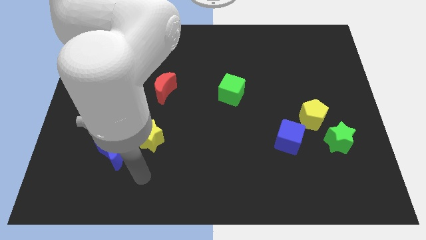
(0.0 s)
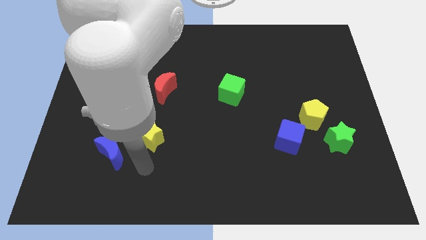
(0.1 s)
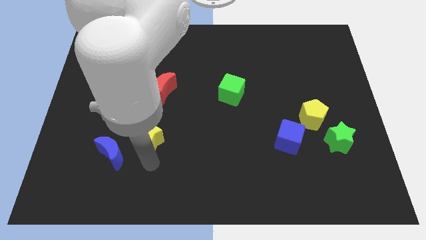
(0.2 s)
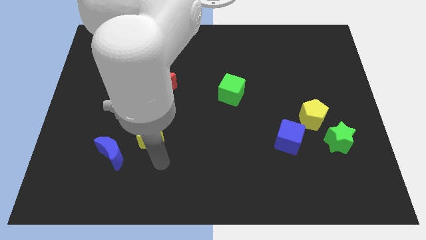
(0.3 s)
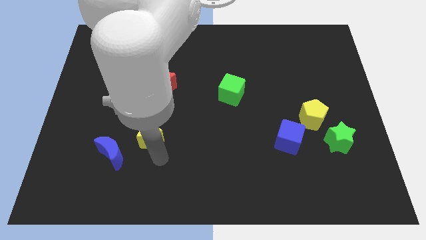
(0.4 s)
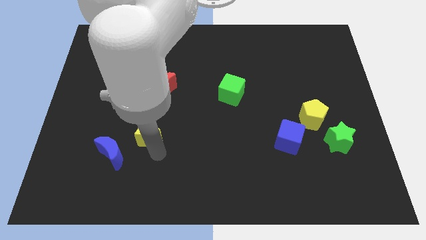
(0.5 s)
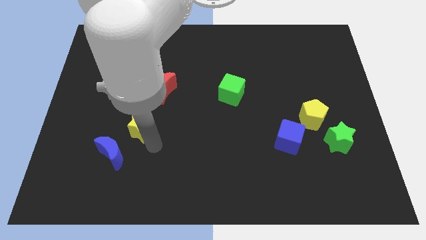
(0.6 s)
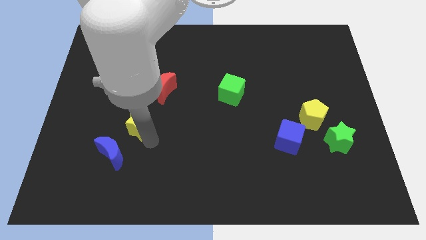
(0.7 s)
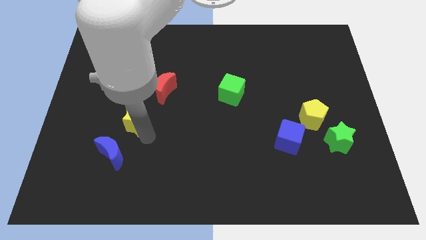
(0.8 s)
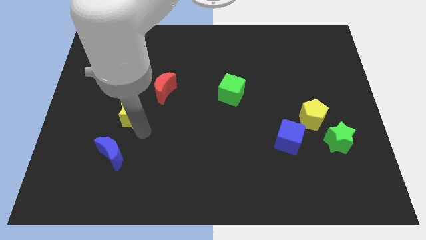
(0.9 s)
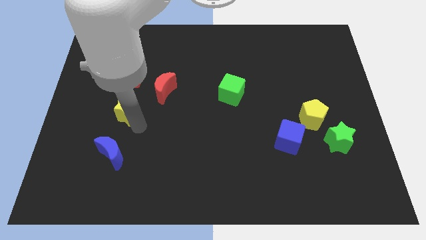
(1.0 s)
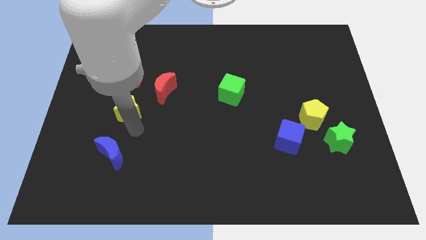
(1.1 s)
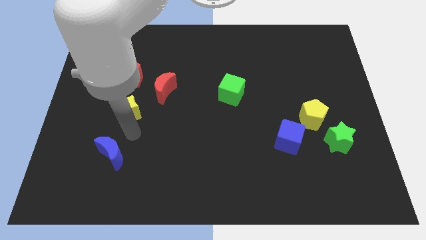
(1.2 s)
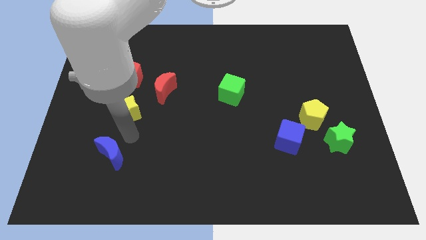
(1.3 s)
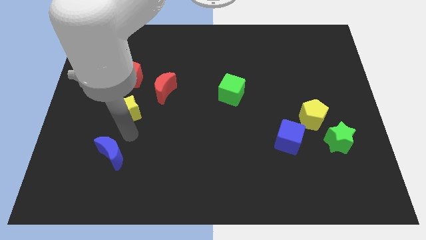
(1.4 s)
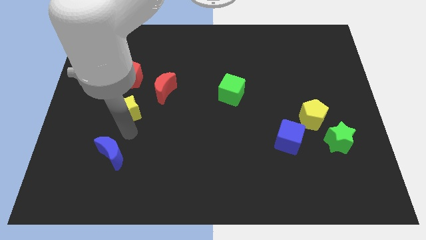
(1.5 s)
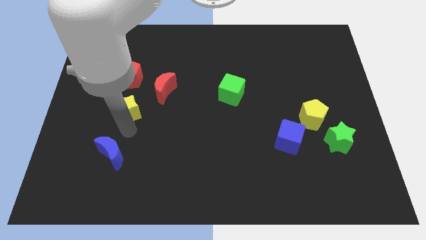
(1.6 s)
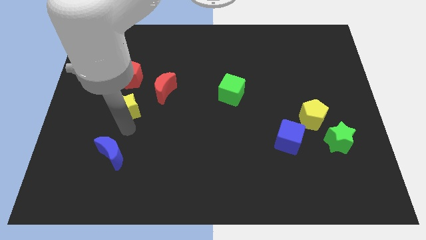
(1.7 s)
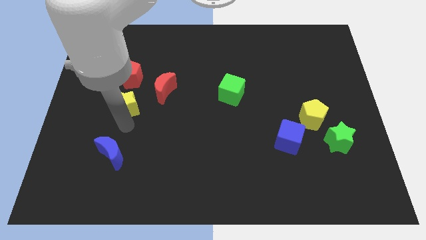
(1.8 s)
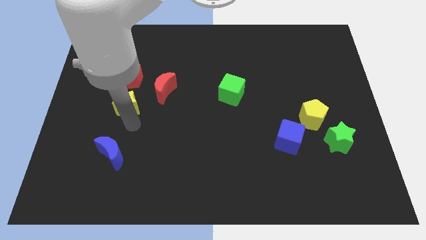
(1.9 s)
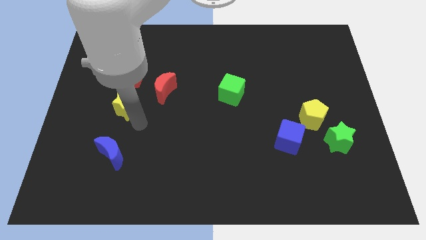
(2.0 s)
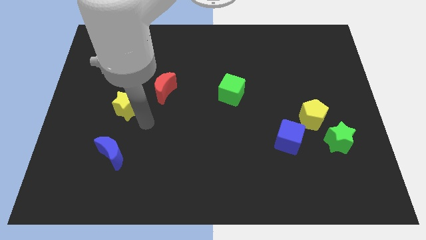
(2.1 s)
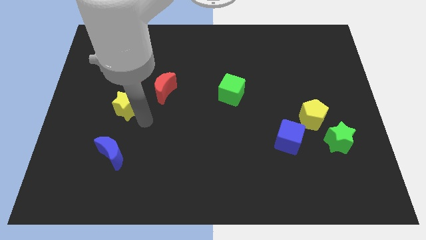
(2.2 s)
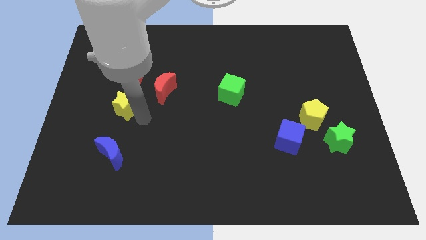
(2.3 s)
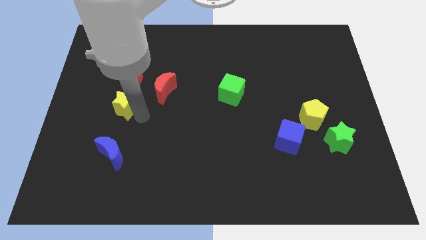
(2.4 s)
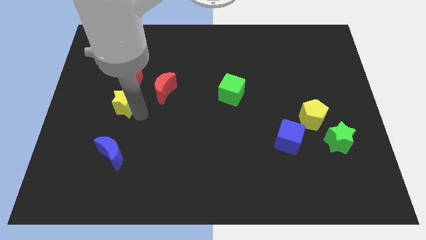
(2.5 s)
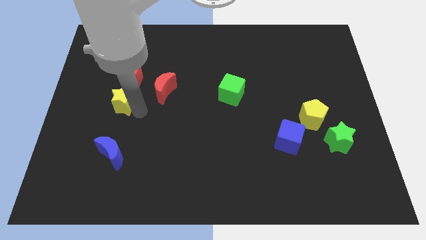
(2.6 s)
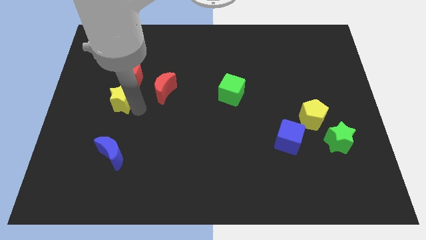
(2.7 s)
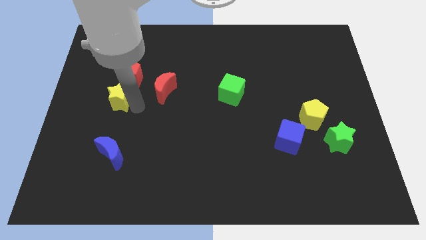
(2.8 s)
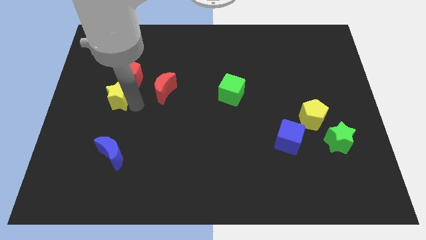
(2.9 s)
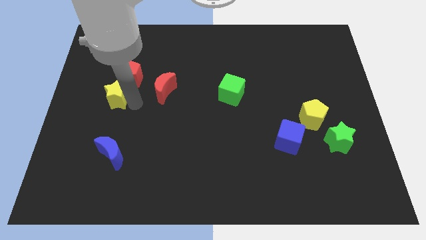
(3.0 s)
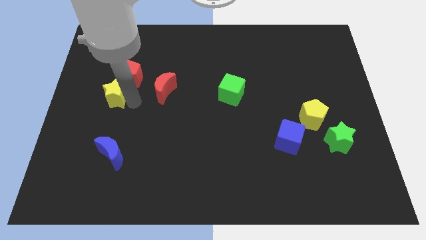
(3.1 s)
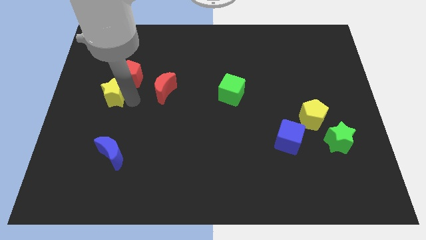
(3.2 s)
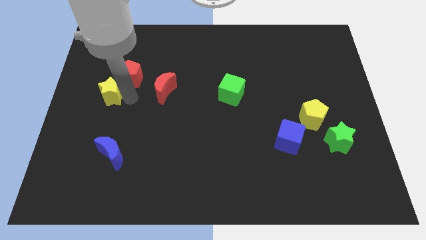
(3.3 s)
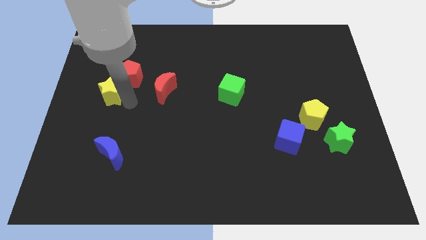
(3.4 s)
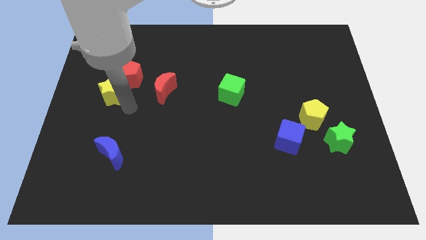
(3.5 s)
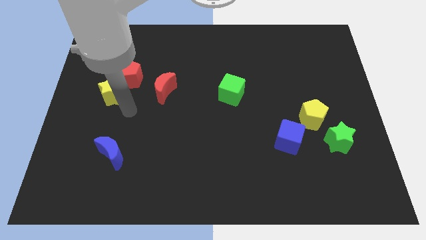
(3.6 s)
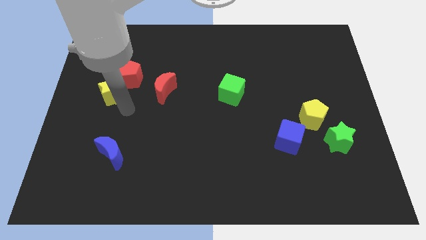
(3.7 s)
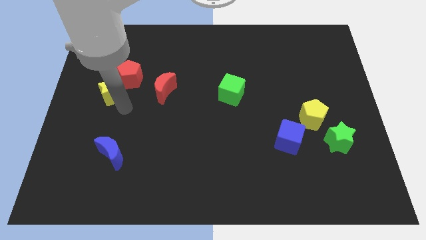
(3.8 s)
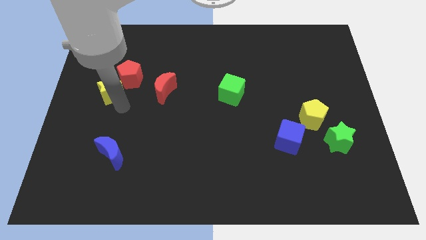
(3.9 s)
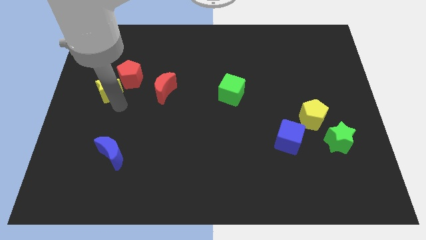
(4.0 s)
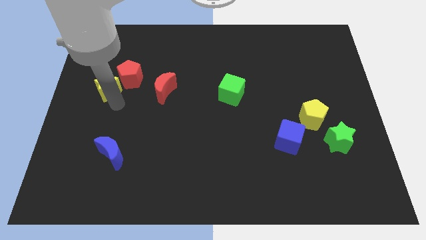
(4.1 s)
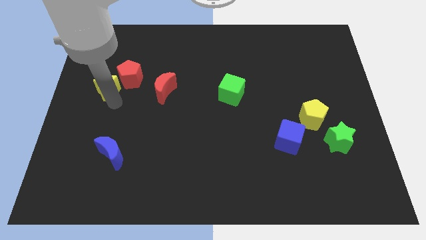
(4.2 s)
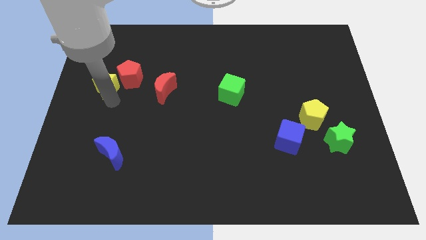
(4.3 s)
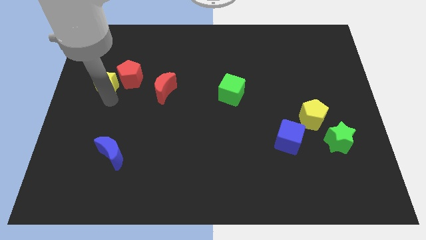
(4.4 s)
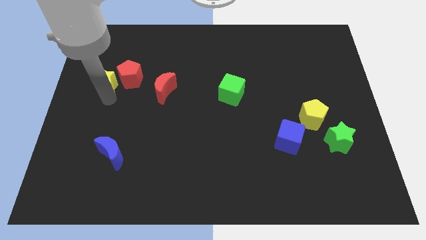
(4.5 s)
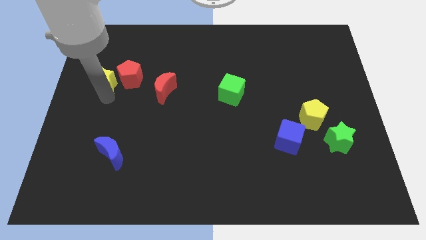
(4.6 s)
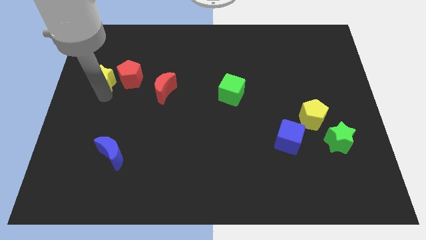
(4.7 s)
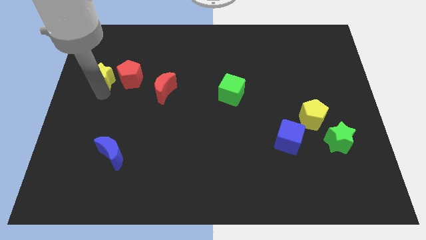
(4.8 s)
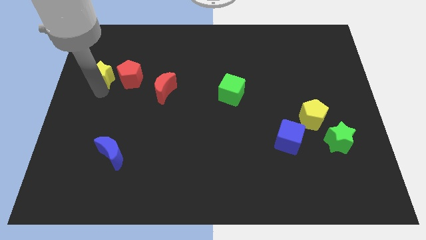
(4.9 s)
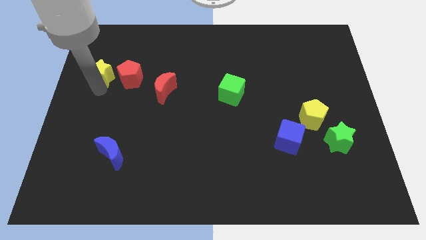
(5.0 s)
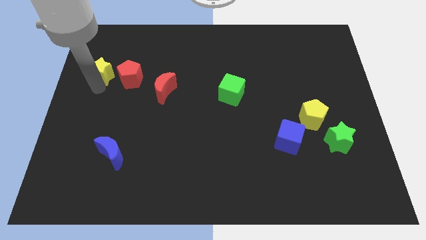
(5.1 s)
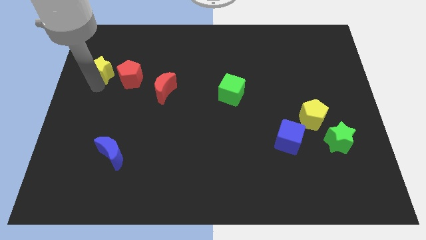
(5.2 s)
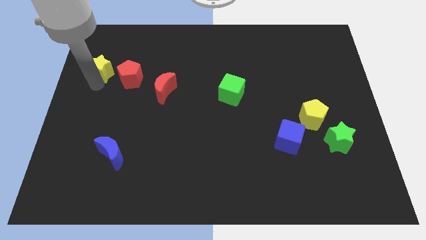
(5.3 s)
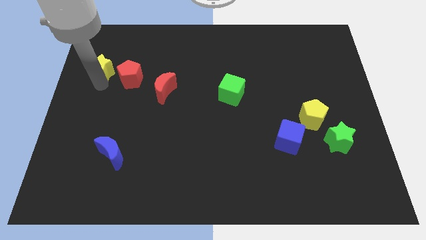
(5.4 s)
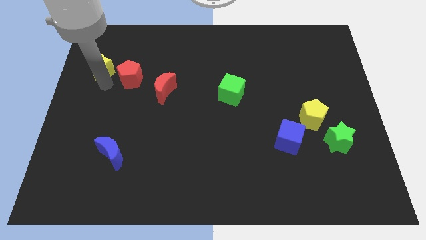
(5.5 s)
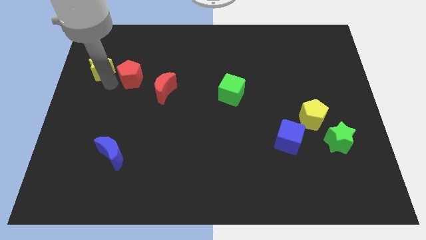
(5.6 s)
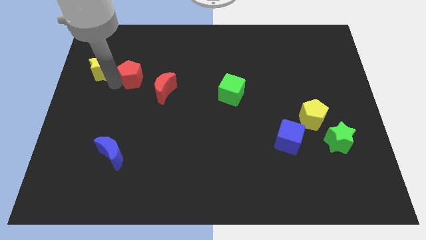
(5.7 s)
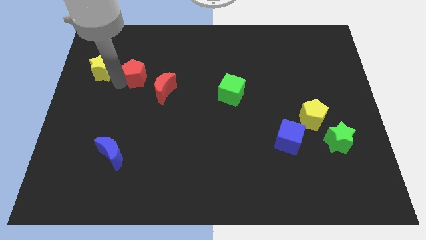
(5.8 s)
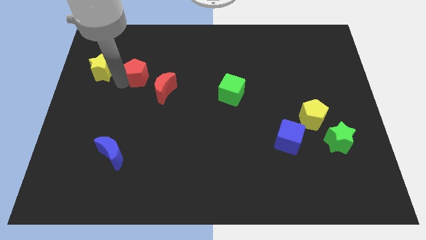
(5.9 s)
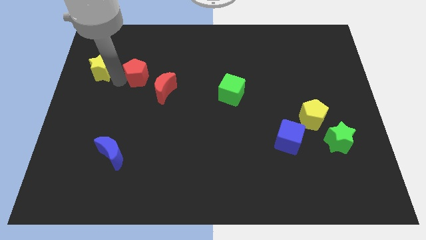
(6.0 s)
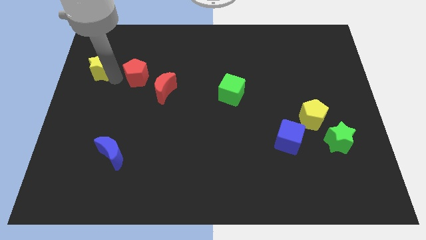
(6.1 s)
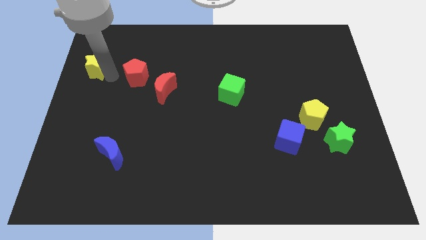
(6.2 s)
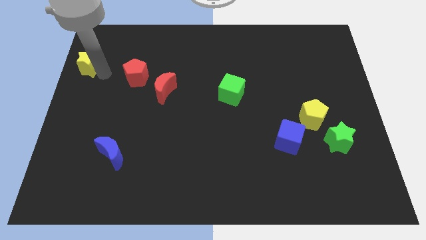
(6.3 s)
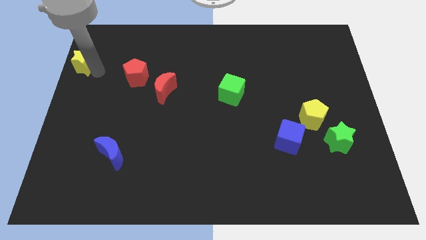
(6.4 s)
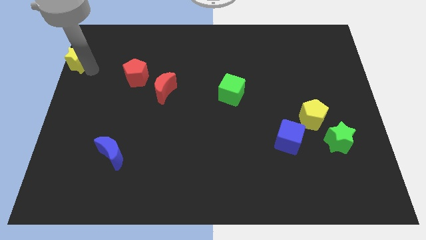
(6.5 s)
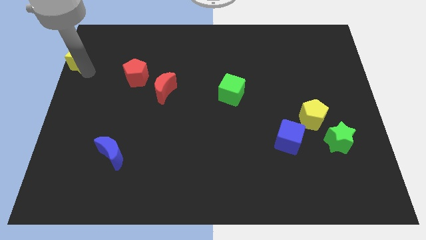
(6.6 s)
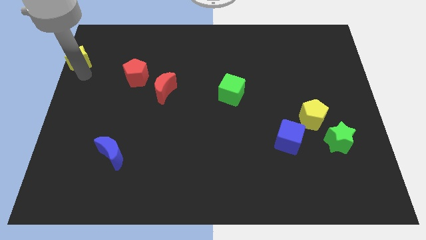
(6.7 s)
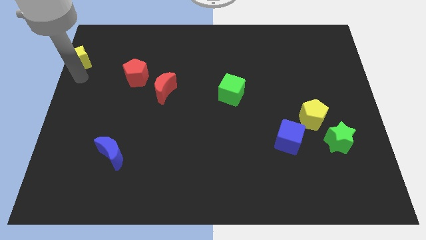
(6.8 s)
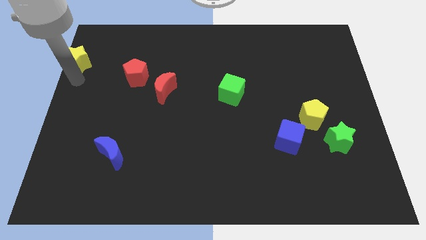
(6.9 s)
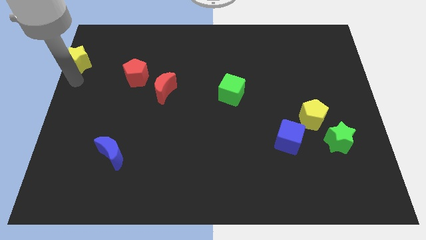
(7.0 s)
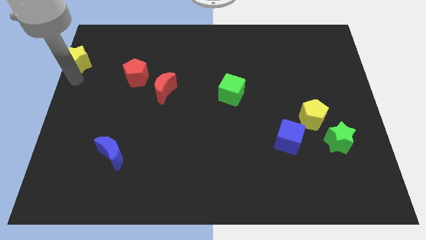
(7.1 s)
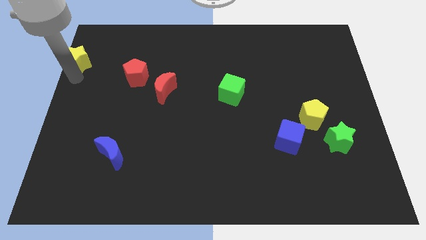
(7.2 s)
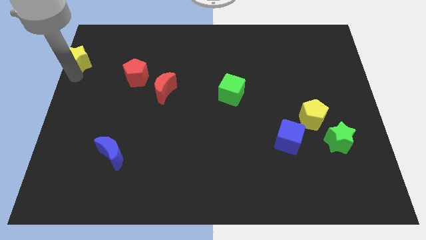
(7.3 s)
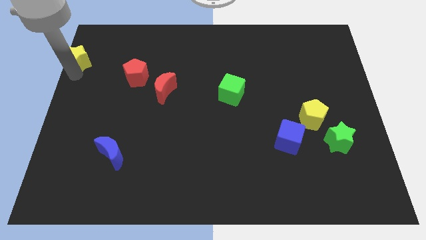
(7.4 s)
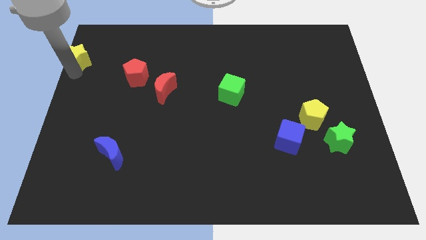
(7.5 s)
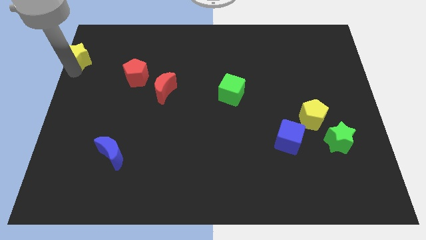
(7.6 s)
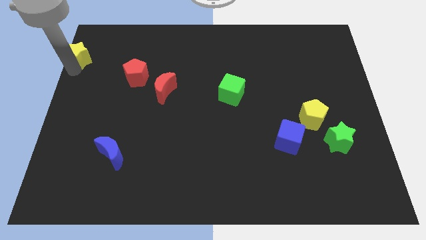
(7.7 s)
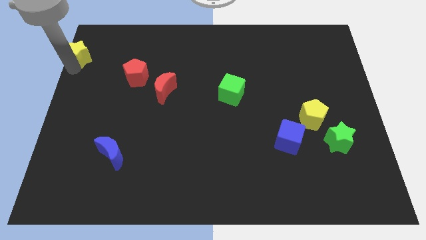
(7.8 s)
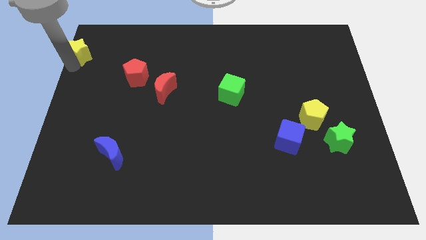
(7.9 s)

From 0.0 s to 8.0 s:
put the yellow star to the top left of the board
